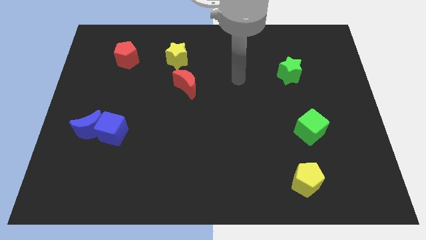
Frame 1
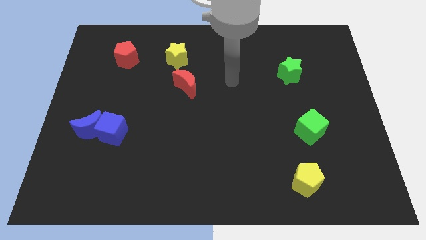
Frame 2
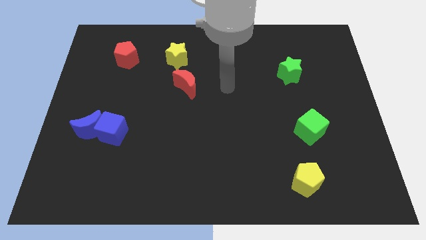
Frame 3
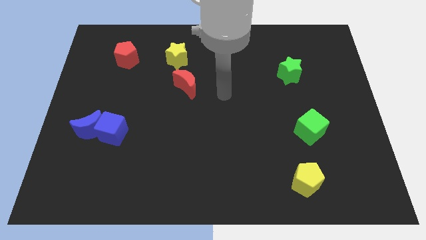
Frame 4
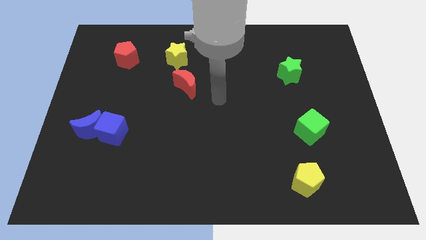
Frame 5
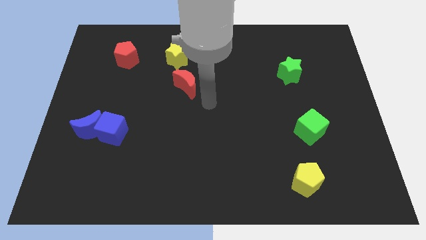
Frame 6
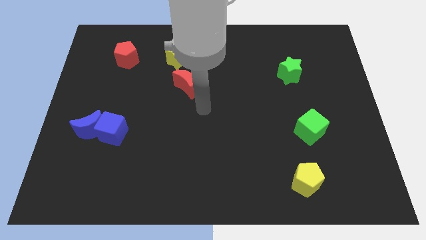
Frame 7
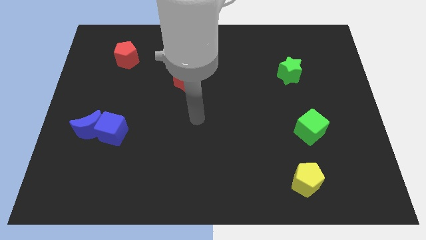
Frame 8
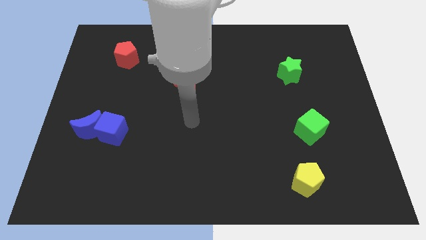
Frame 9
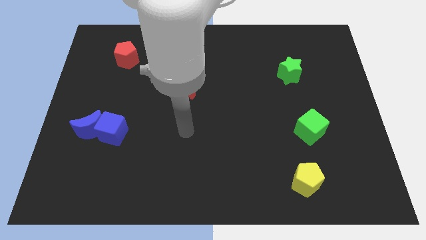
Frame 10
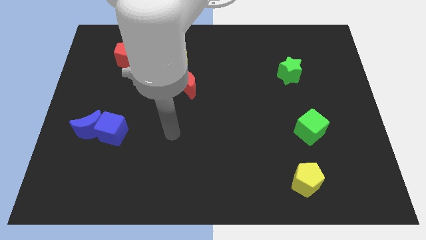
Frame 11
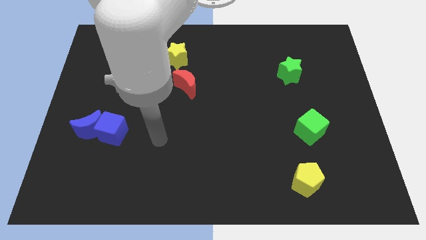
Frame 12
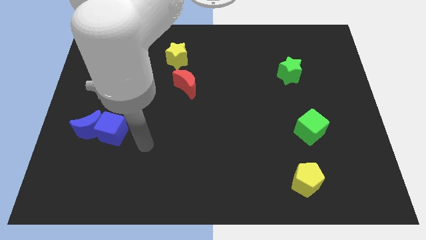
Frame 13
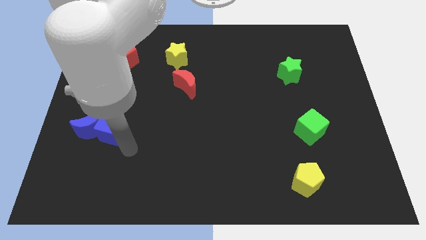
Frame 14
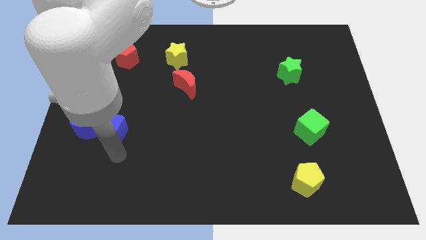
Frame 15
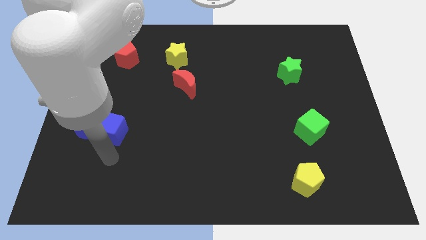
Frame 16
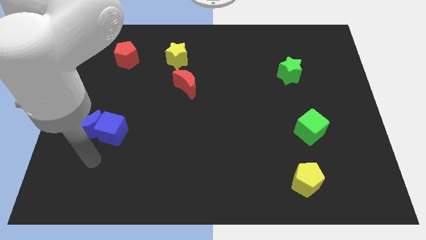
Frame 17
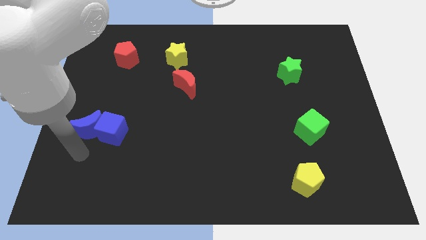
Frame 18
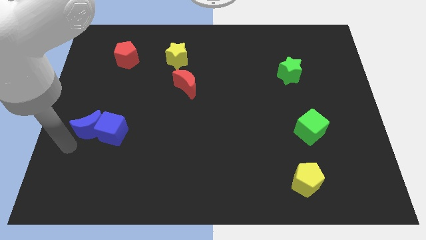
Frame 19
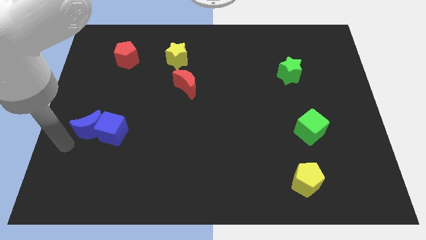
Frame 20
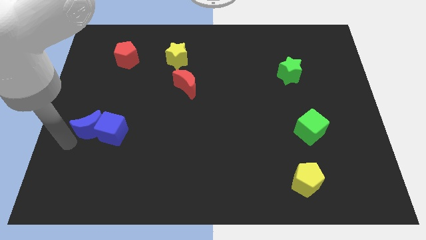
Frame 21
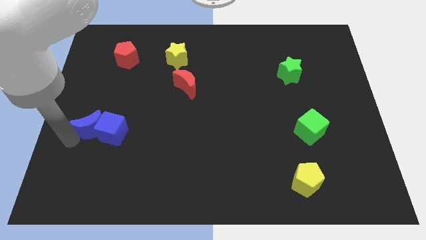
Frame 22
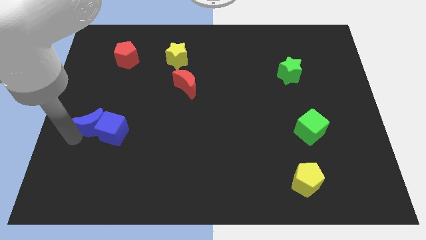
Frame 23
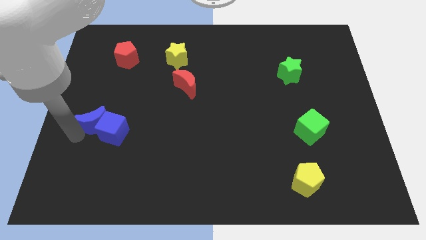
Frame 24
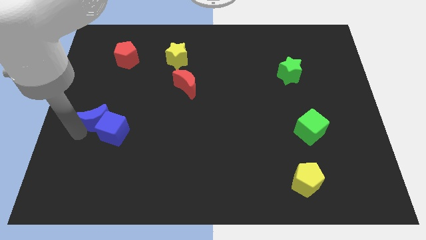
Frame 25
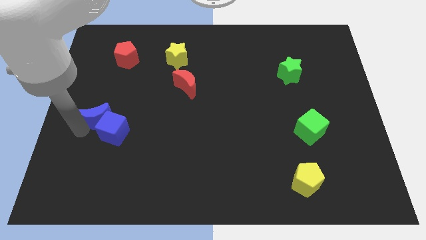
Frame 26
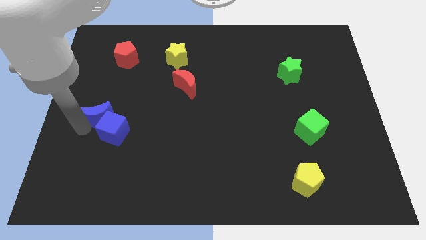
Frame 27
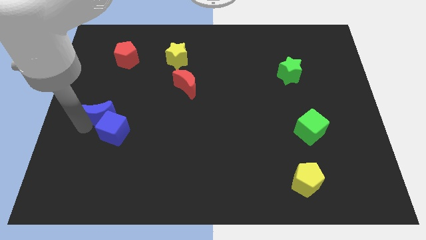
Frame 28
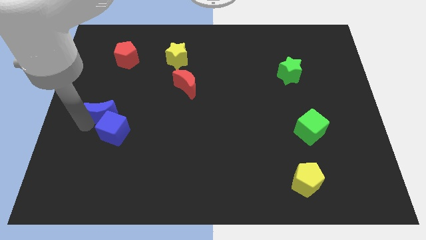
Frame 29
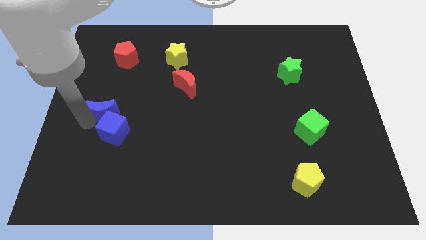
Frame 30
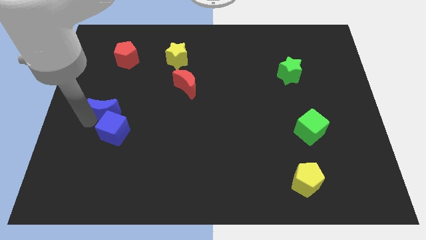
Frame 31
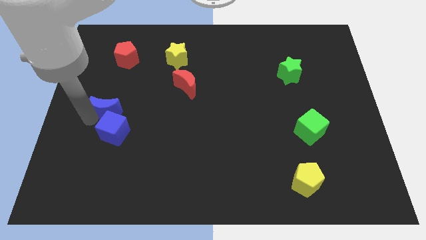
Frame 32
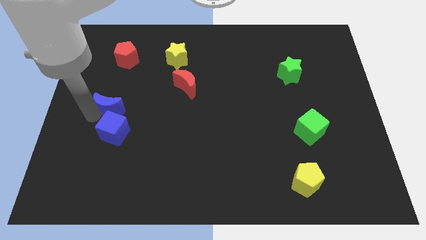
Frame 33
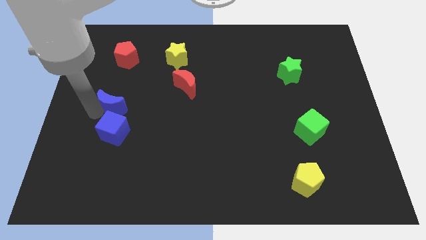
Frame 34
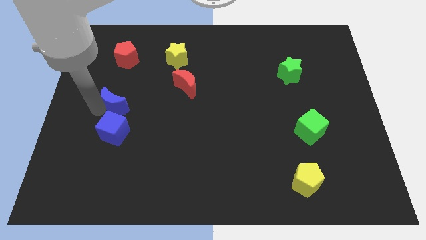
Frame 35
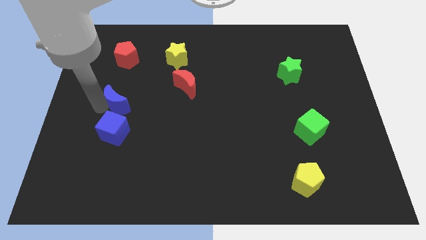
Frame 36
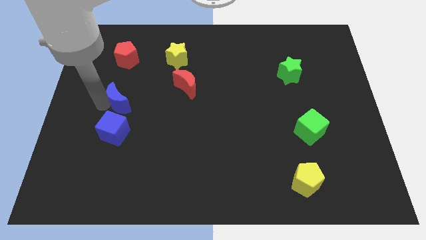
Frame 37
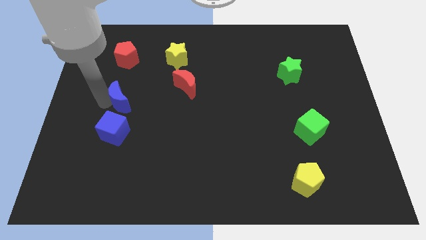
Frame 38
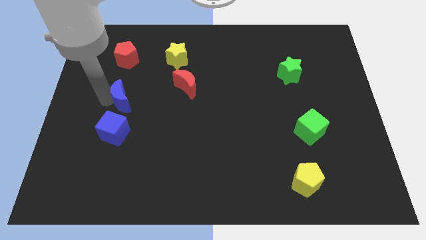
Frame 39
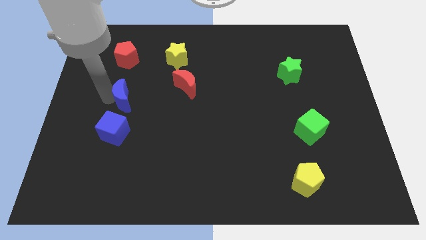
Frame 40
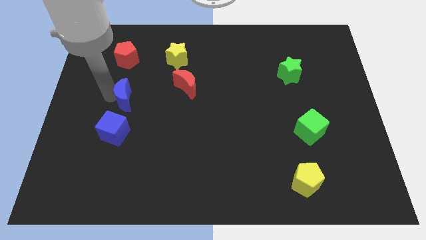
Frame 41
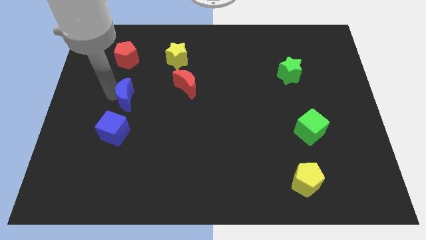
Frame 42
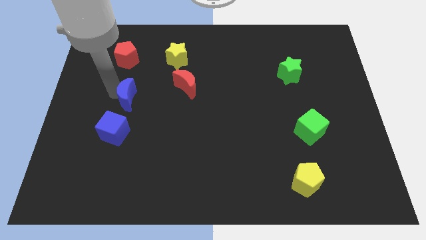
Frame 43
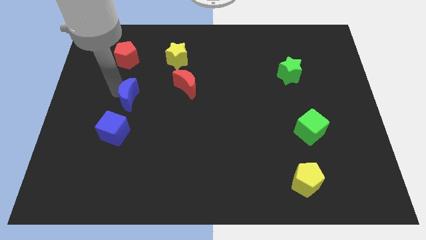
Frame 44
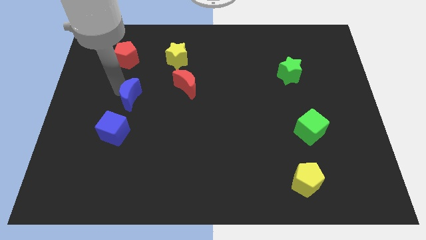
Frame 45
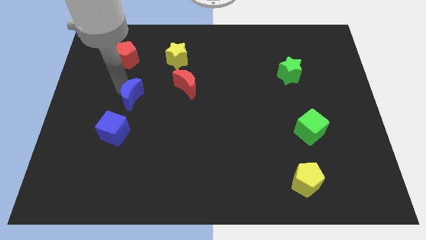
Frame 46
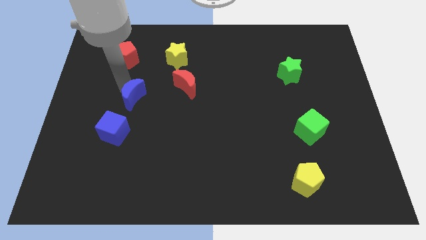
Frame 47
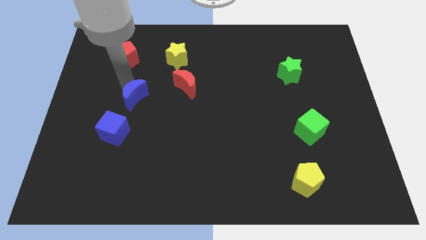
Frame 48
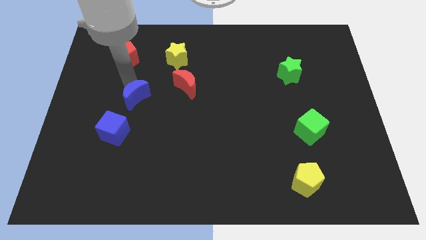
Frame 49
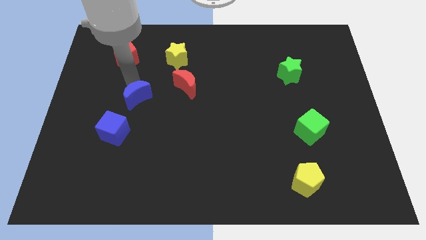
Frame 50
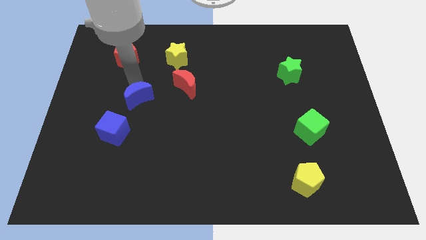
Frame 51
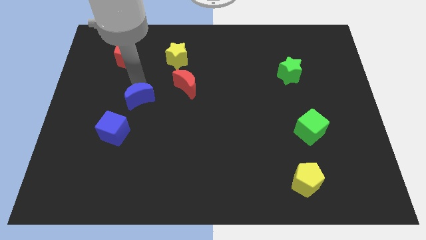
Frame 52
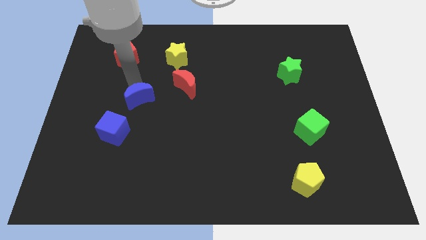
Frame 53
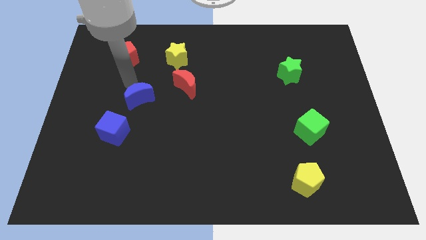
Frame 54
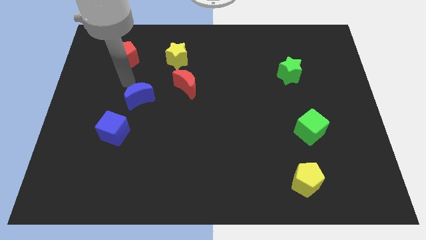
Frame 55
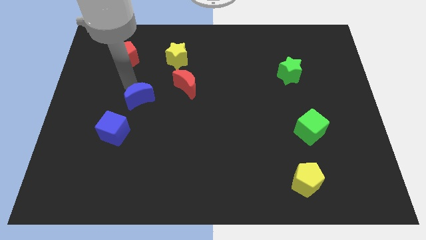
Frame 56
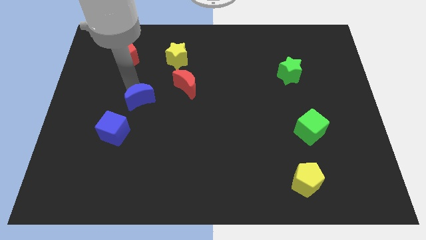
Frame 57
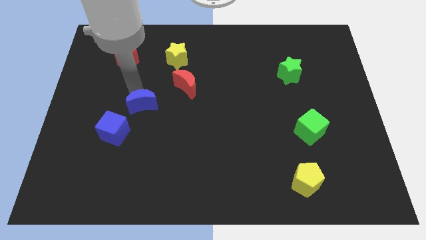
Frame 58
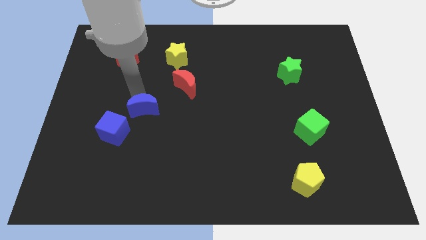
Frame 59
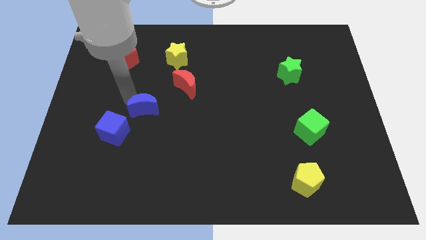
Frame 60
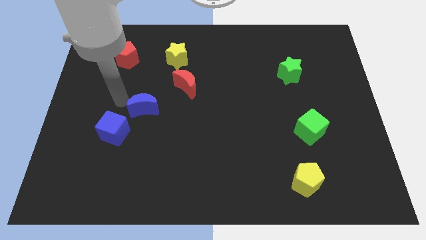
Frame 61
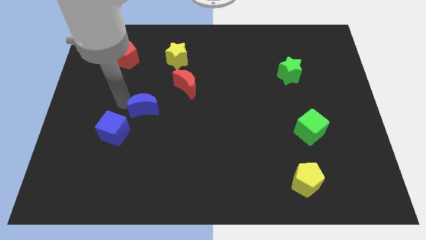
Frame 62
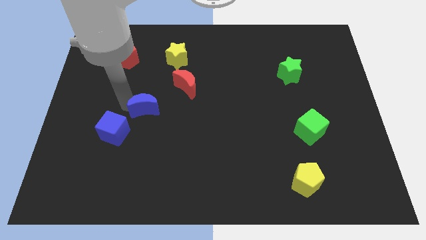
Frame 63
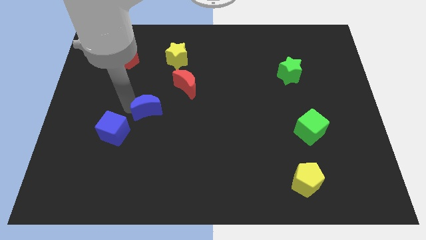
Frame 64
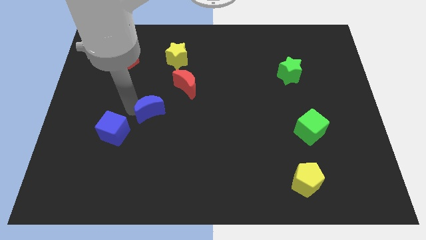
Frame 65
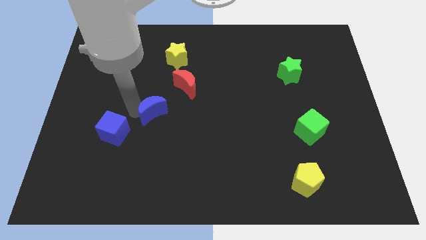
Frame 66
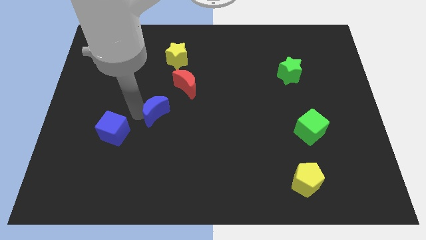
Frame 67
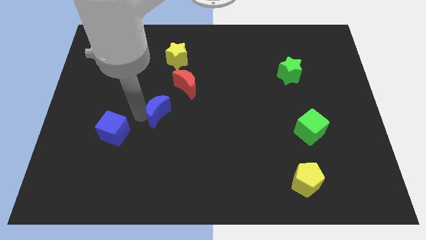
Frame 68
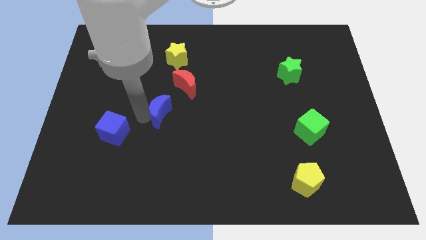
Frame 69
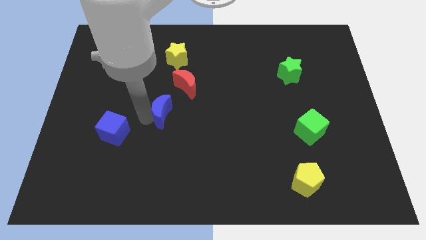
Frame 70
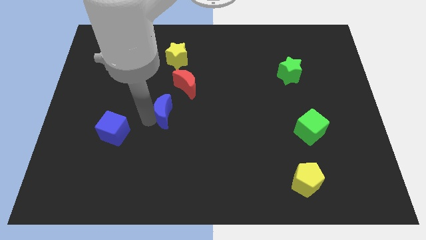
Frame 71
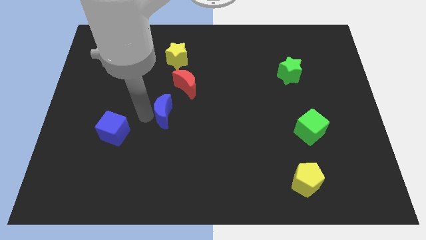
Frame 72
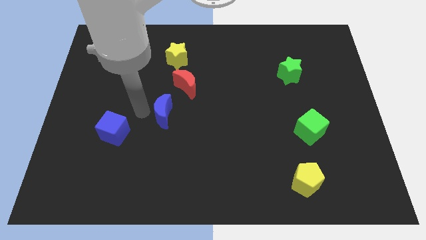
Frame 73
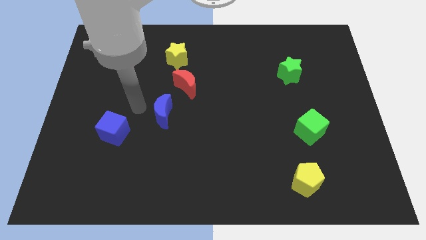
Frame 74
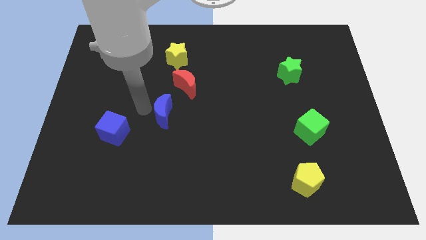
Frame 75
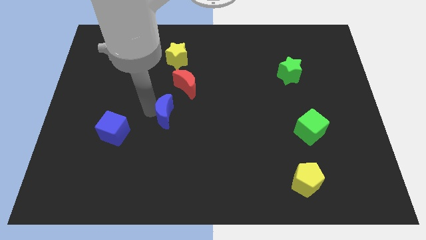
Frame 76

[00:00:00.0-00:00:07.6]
slide the blue moon to the bottom of the red moon
